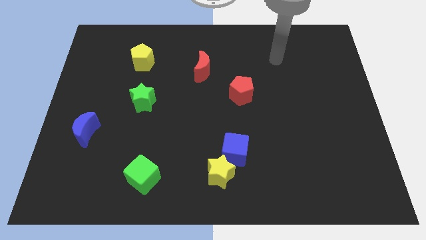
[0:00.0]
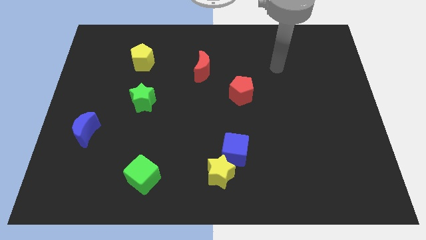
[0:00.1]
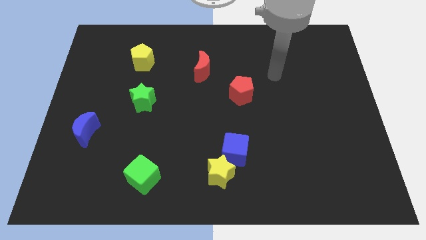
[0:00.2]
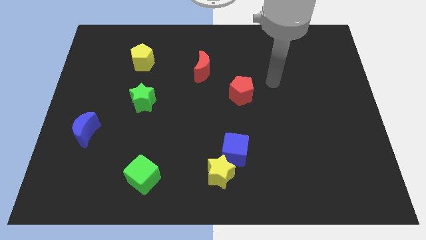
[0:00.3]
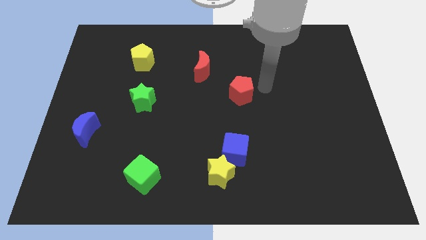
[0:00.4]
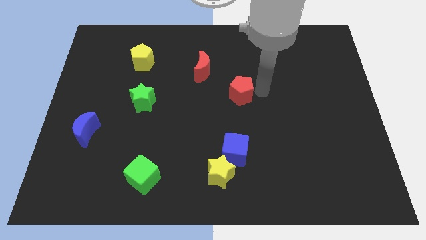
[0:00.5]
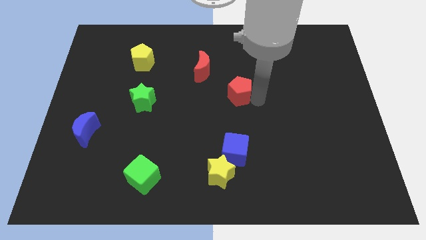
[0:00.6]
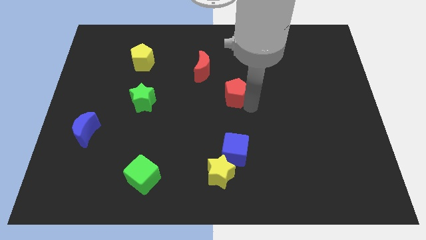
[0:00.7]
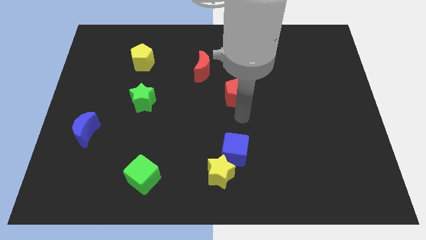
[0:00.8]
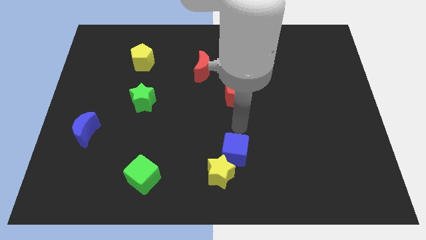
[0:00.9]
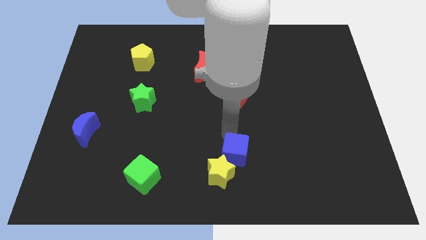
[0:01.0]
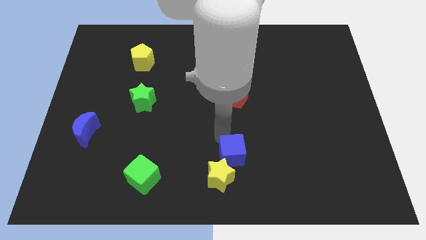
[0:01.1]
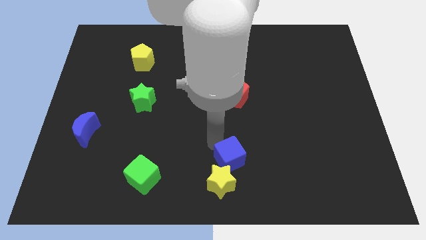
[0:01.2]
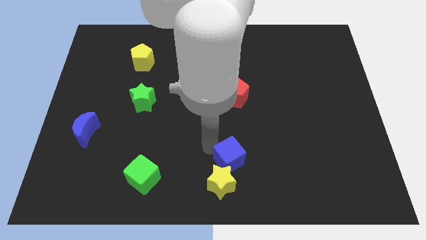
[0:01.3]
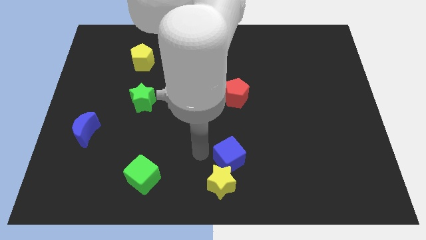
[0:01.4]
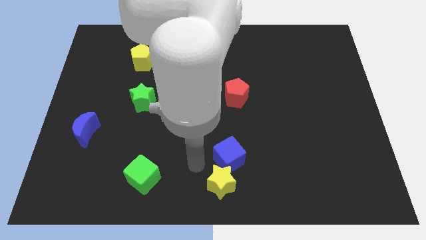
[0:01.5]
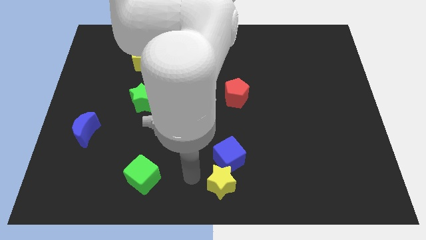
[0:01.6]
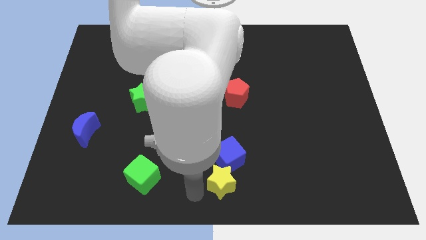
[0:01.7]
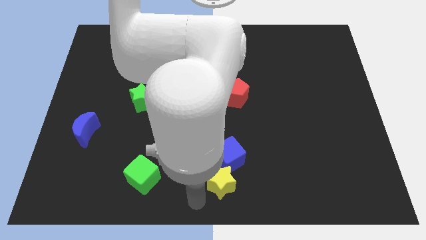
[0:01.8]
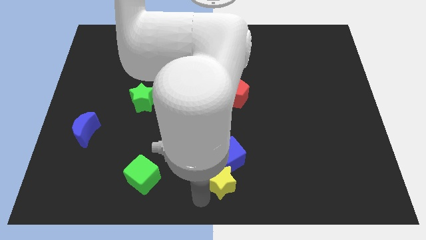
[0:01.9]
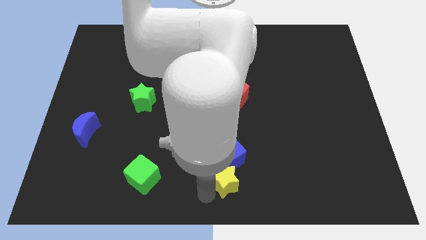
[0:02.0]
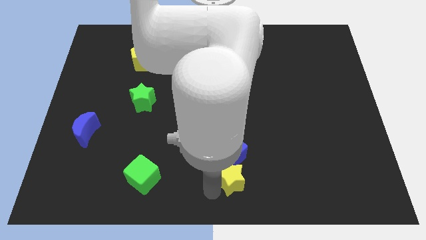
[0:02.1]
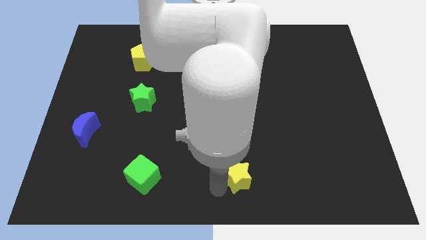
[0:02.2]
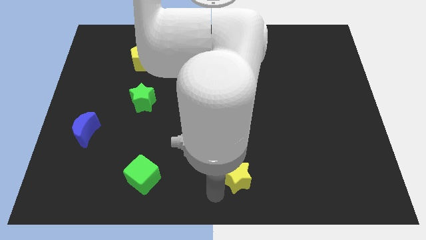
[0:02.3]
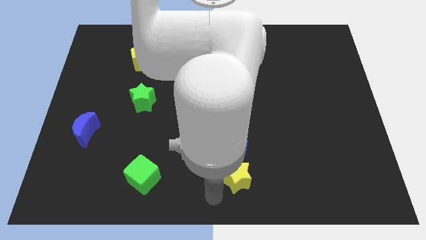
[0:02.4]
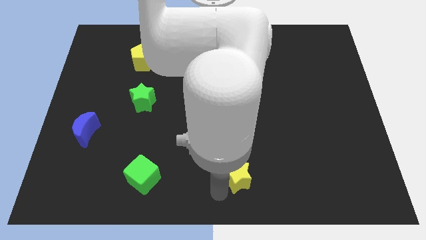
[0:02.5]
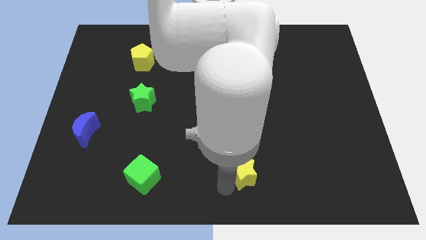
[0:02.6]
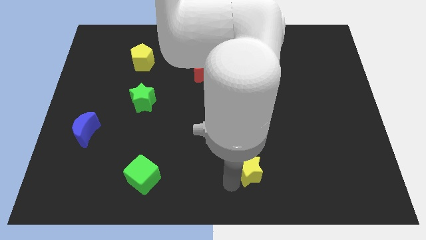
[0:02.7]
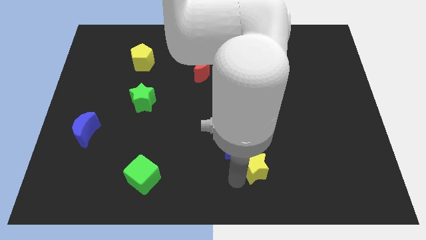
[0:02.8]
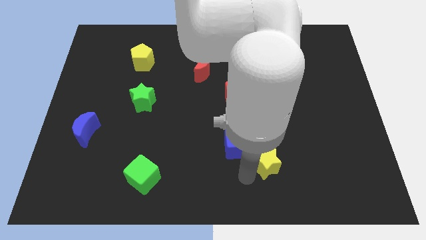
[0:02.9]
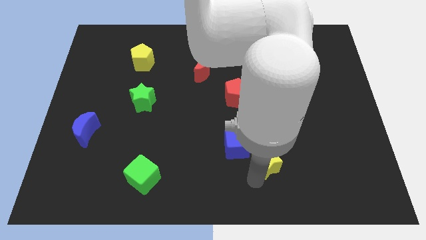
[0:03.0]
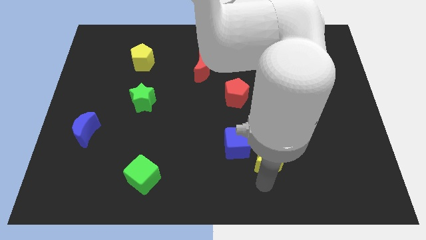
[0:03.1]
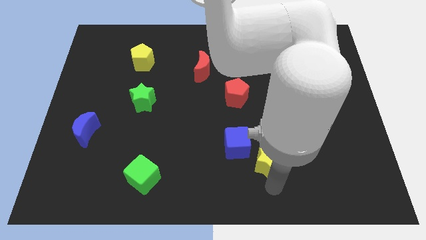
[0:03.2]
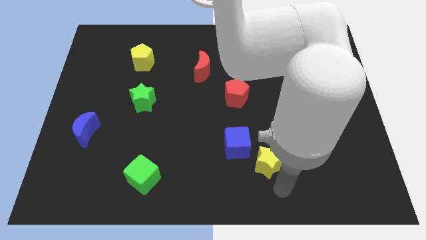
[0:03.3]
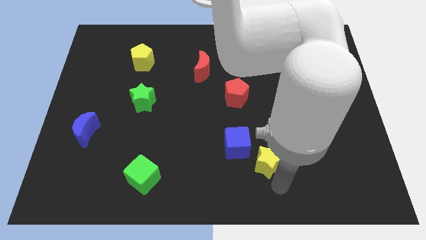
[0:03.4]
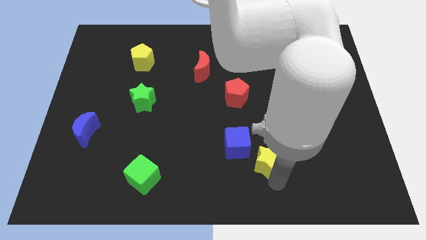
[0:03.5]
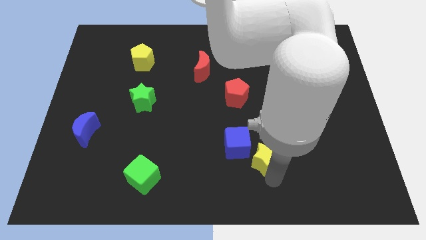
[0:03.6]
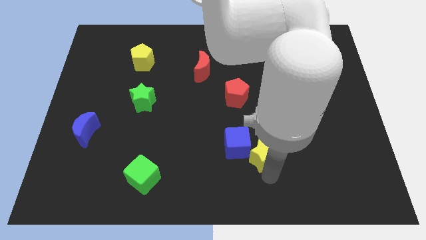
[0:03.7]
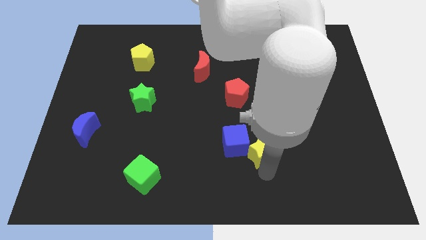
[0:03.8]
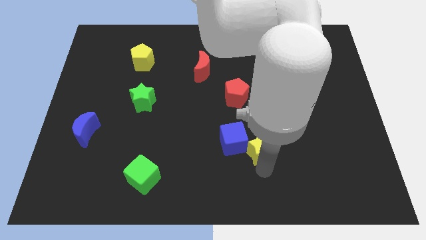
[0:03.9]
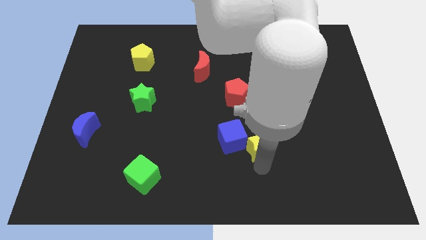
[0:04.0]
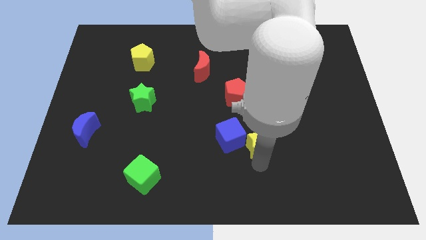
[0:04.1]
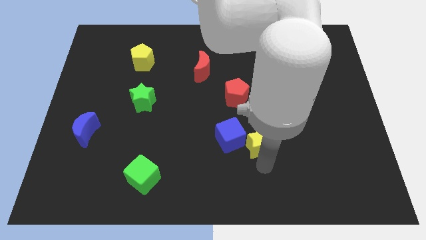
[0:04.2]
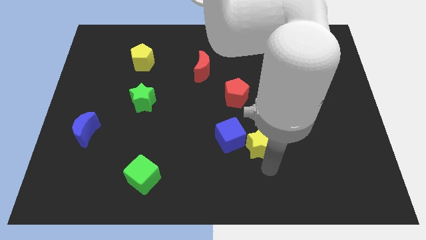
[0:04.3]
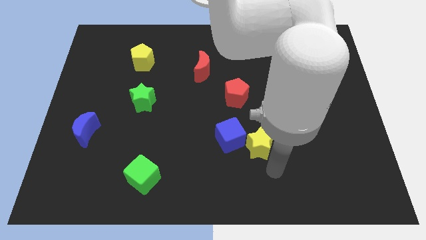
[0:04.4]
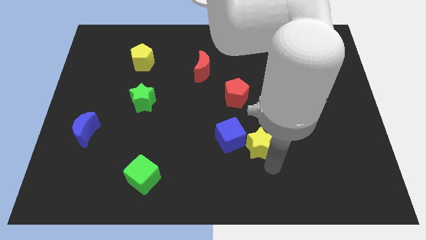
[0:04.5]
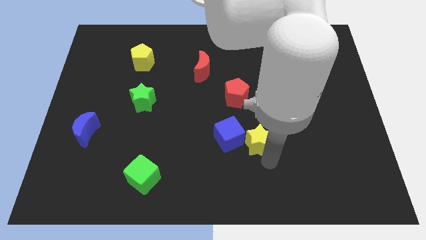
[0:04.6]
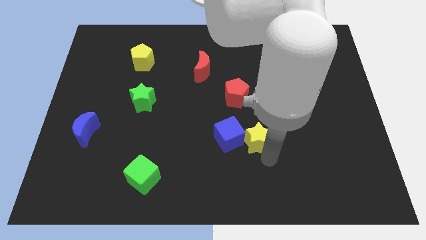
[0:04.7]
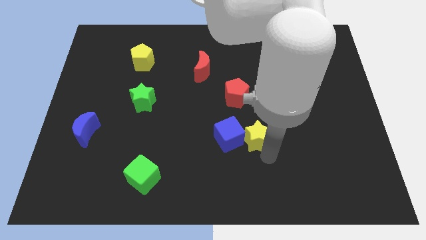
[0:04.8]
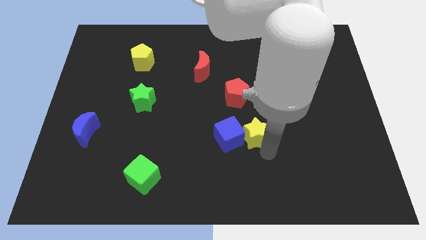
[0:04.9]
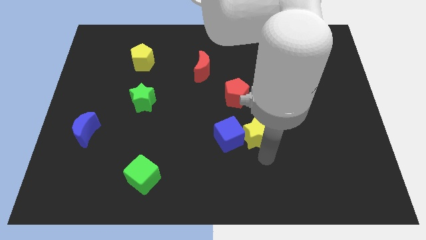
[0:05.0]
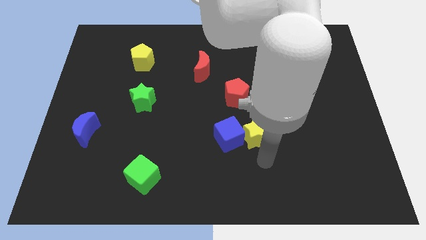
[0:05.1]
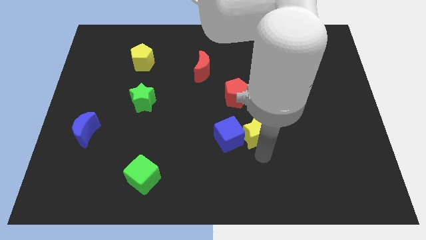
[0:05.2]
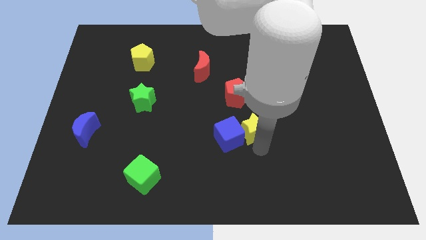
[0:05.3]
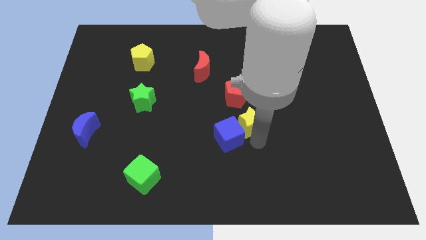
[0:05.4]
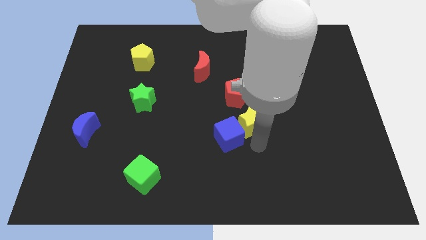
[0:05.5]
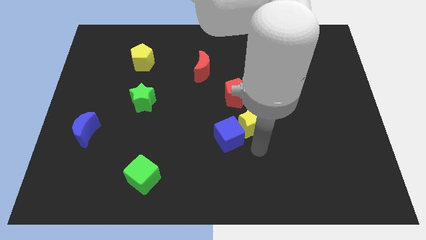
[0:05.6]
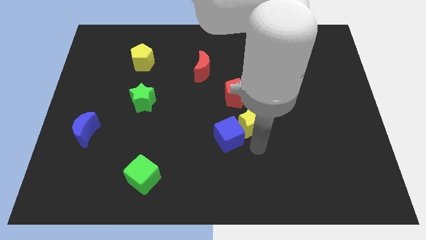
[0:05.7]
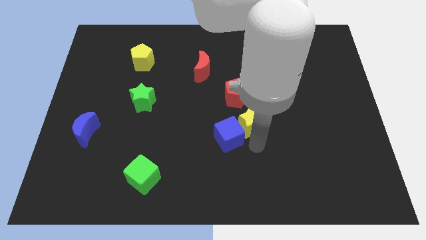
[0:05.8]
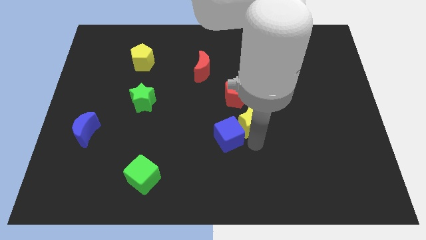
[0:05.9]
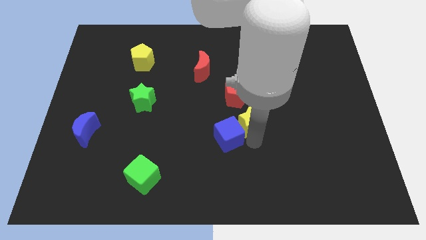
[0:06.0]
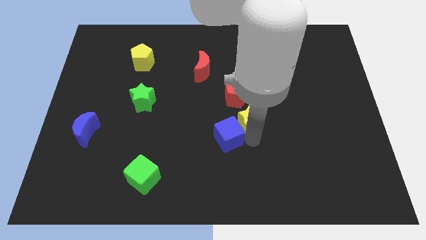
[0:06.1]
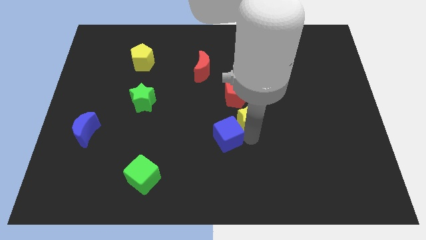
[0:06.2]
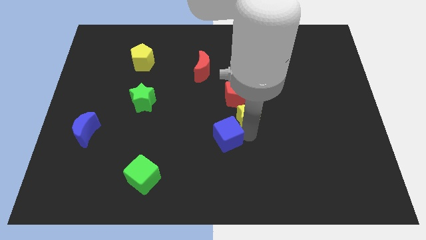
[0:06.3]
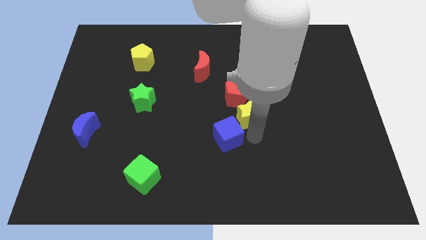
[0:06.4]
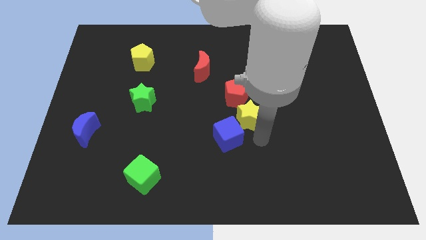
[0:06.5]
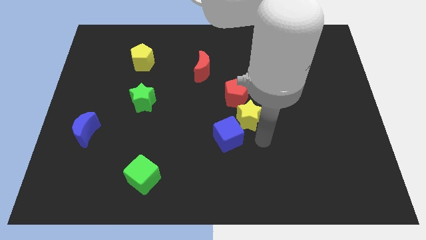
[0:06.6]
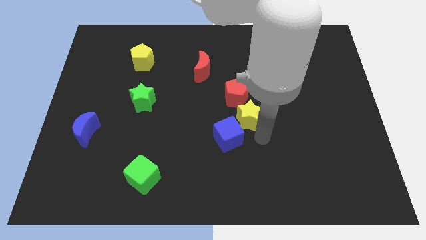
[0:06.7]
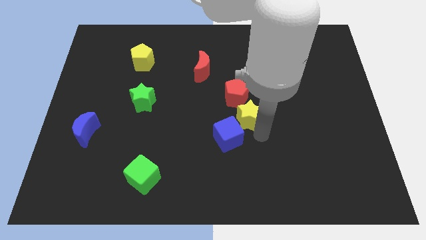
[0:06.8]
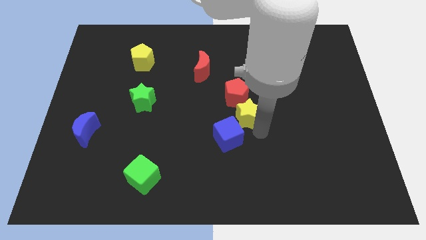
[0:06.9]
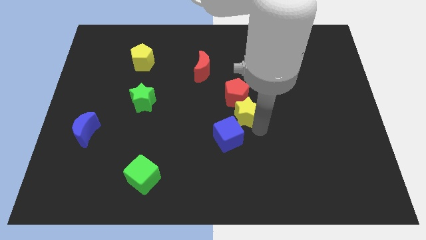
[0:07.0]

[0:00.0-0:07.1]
move the yellow star towards the red pentagon
